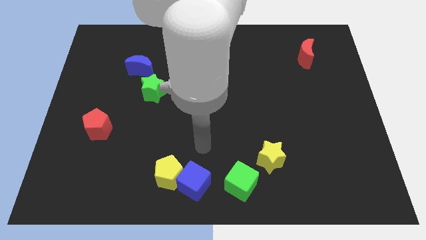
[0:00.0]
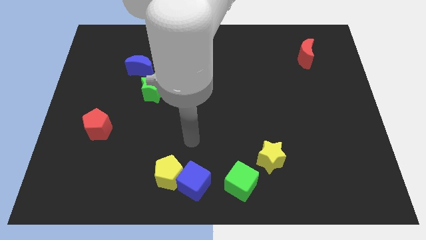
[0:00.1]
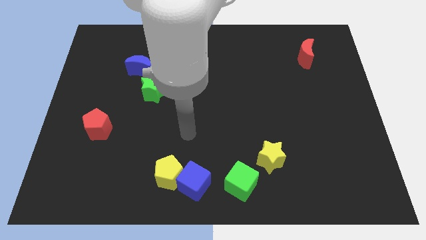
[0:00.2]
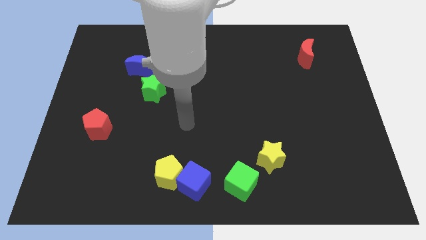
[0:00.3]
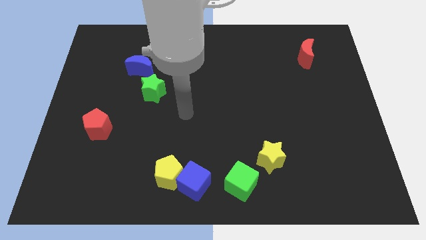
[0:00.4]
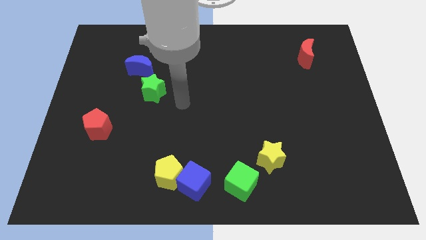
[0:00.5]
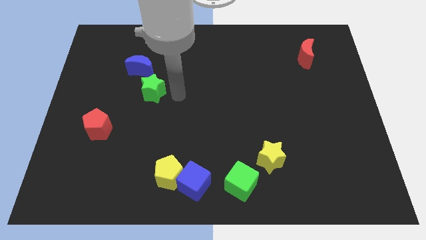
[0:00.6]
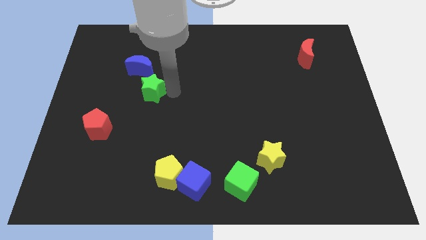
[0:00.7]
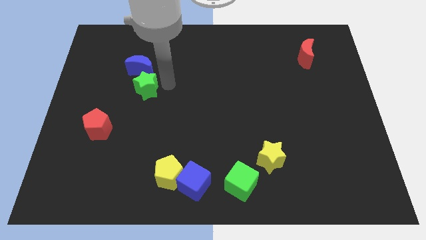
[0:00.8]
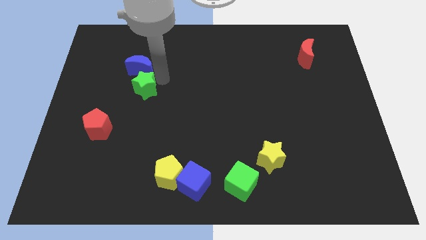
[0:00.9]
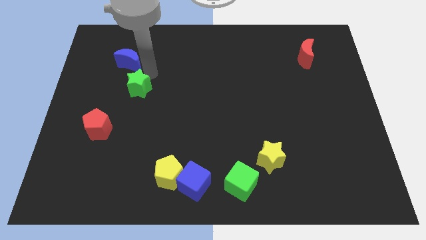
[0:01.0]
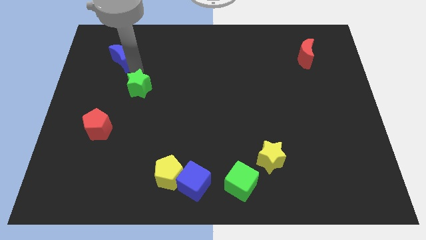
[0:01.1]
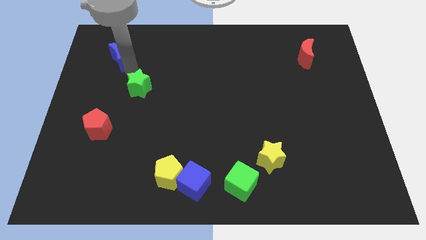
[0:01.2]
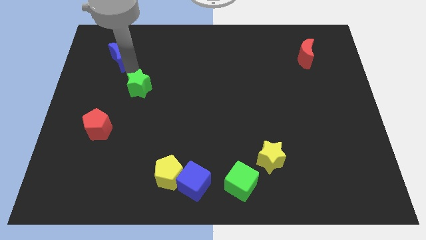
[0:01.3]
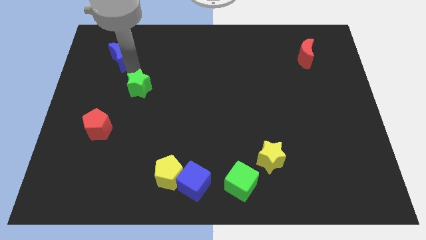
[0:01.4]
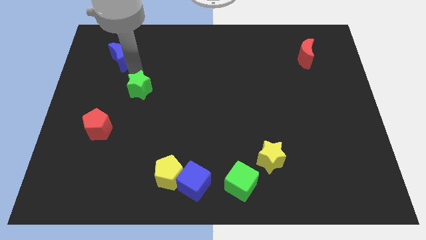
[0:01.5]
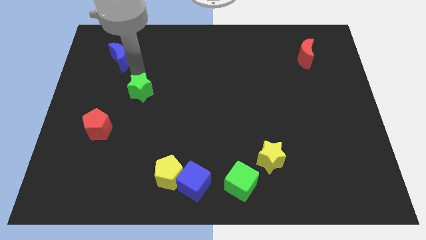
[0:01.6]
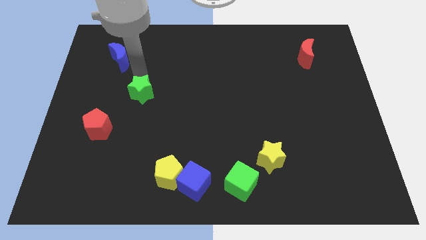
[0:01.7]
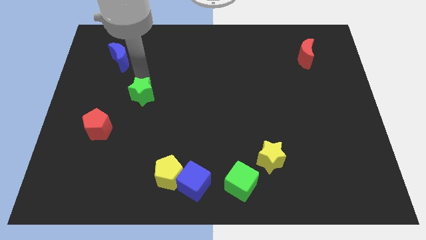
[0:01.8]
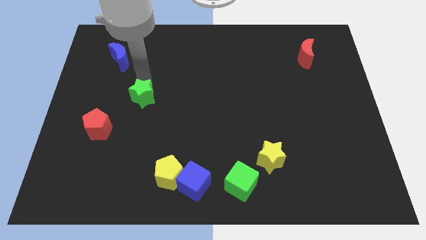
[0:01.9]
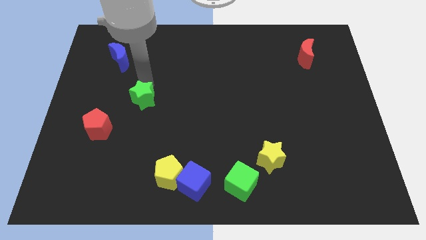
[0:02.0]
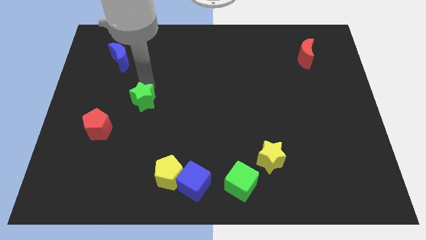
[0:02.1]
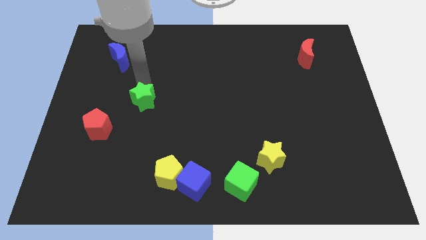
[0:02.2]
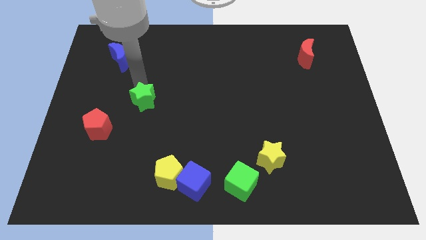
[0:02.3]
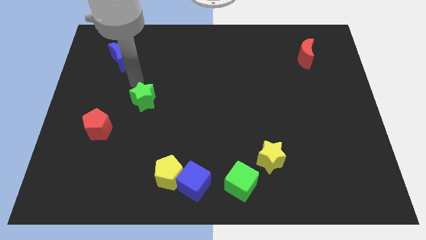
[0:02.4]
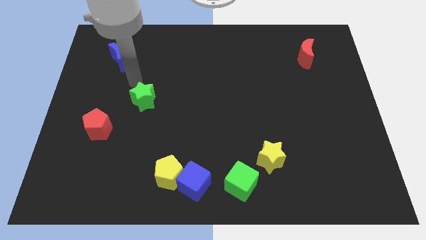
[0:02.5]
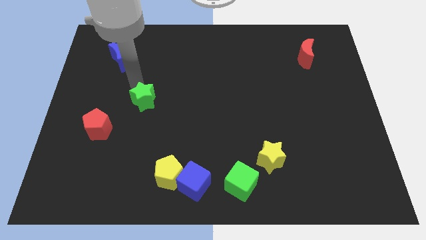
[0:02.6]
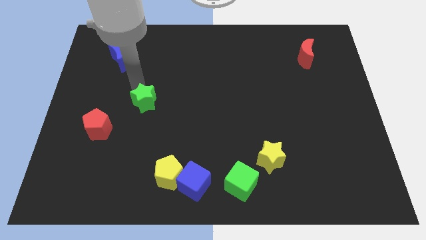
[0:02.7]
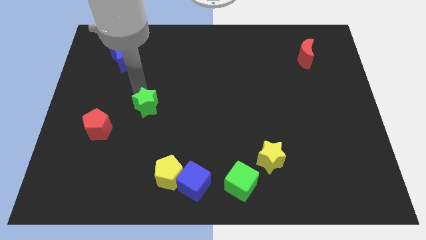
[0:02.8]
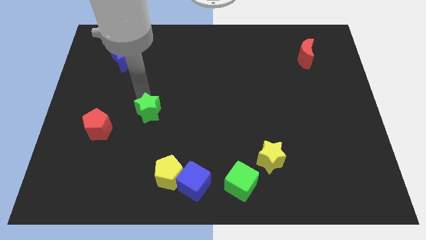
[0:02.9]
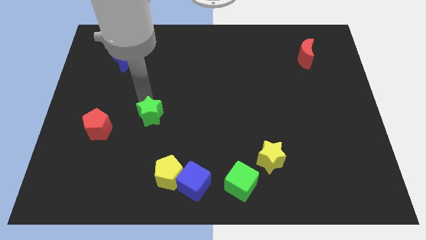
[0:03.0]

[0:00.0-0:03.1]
push the green star downwards slightly

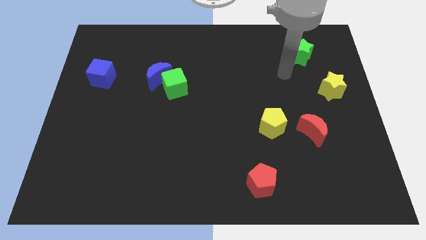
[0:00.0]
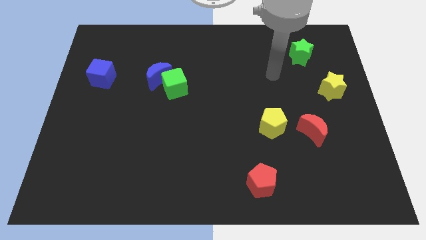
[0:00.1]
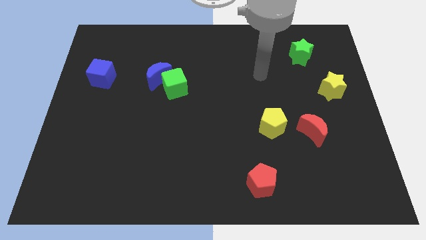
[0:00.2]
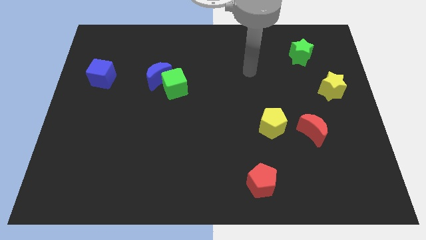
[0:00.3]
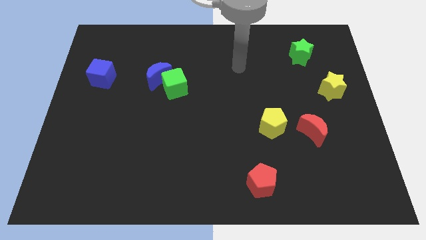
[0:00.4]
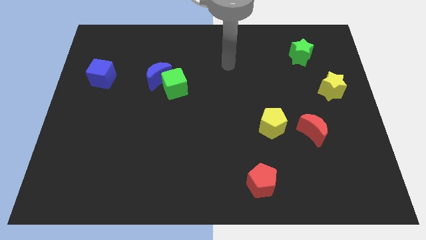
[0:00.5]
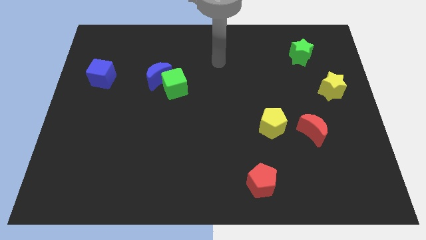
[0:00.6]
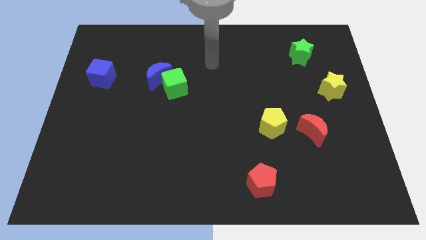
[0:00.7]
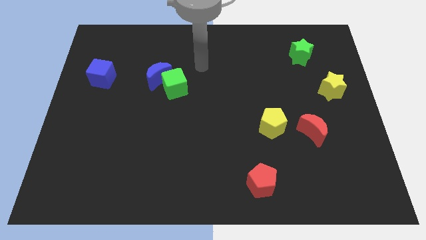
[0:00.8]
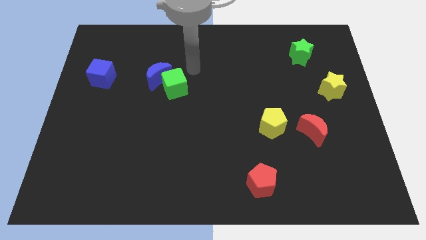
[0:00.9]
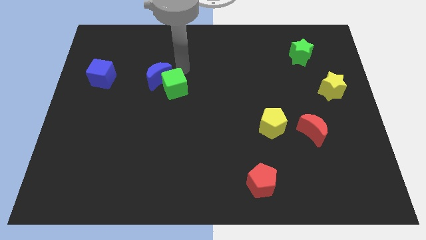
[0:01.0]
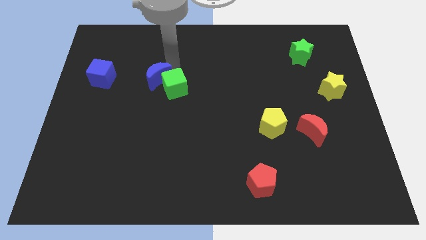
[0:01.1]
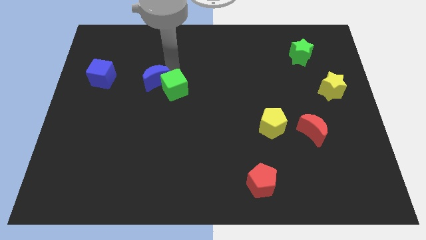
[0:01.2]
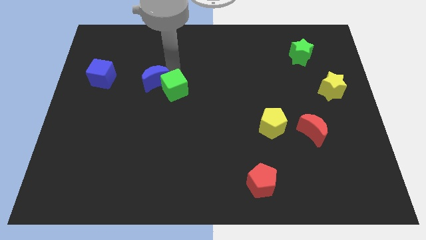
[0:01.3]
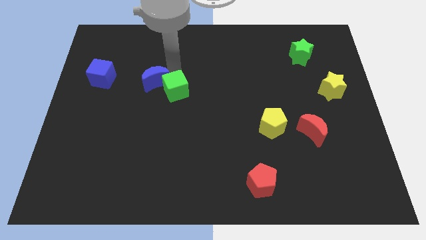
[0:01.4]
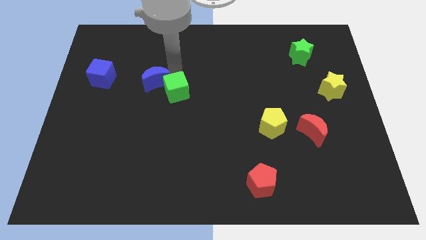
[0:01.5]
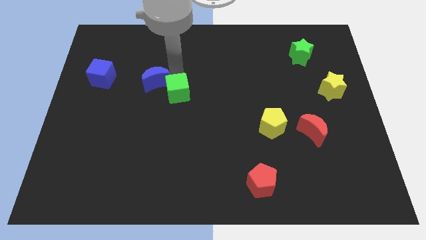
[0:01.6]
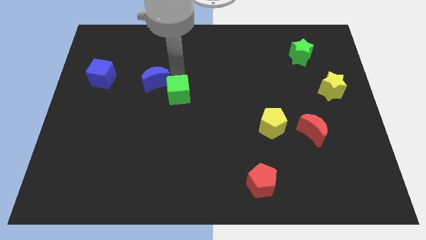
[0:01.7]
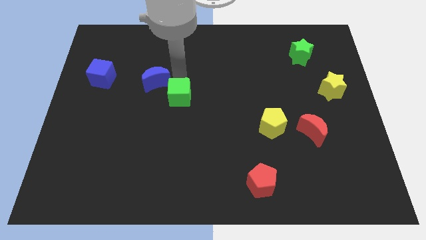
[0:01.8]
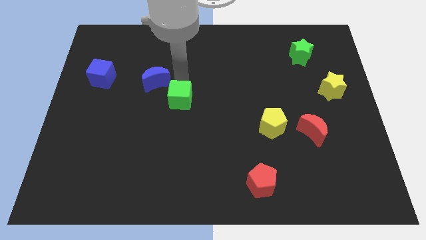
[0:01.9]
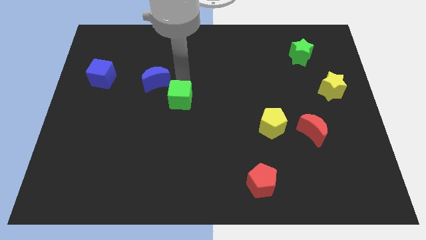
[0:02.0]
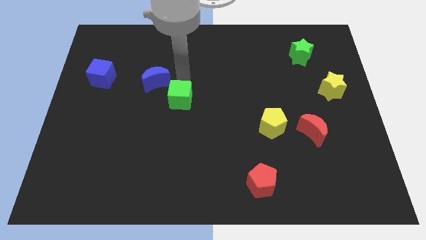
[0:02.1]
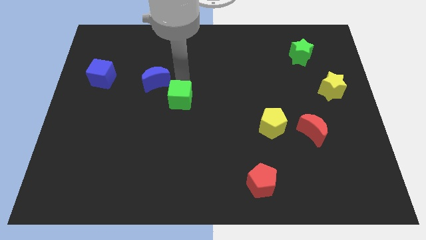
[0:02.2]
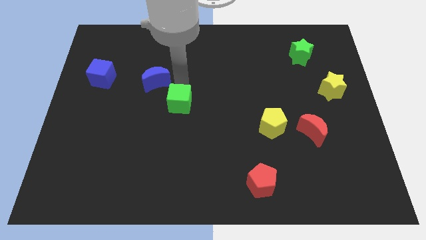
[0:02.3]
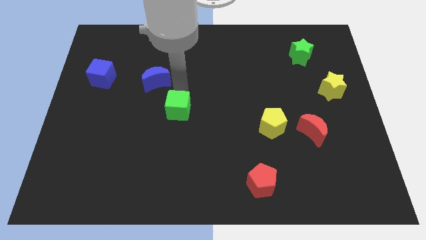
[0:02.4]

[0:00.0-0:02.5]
slightly slide the green cube down

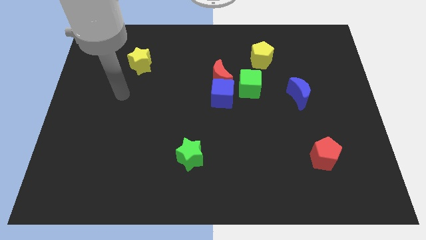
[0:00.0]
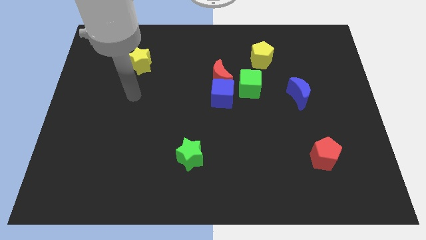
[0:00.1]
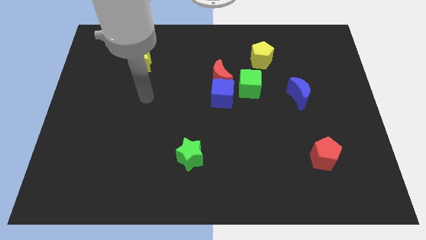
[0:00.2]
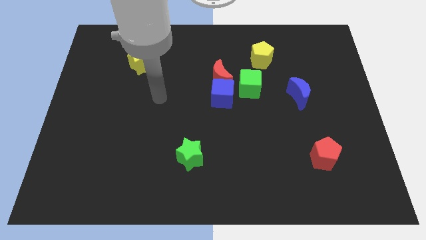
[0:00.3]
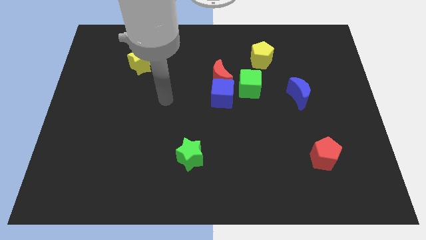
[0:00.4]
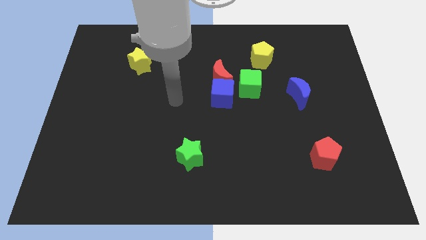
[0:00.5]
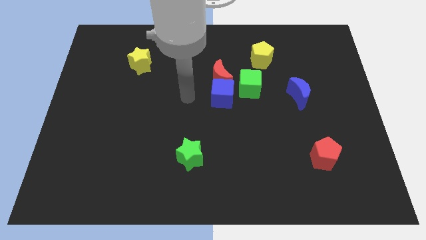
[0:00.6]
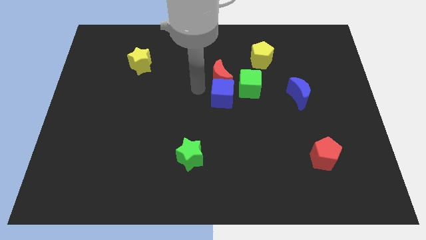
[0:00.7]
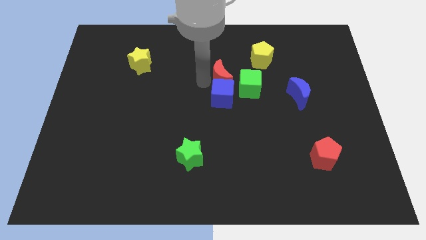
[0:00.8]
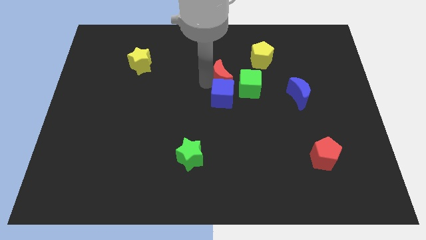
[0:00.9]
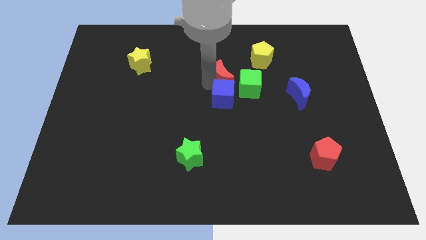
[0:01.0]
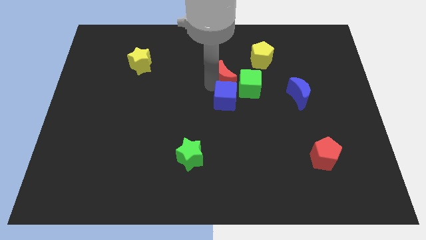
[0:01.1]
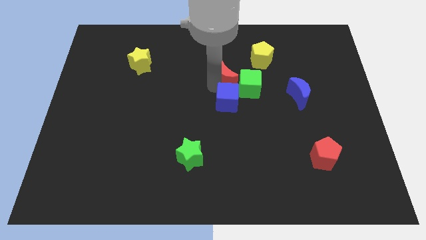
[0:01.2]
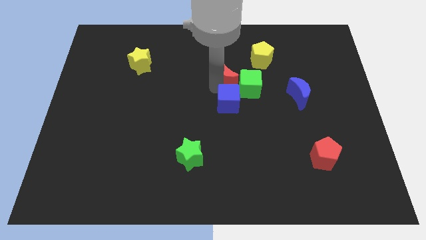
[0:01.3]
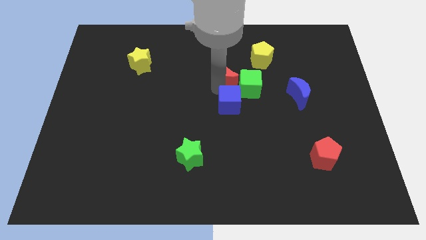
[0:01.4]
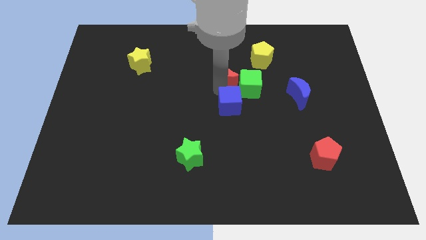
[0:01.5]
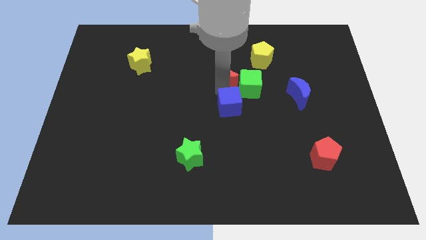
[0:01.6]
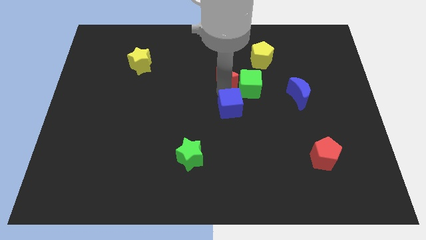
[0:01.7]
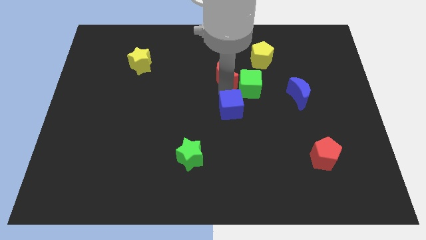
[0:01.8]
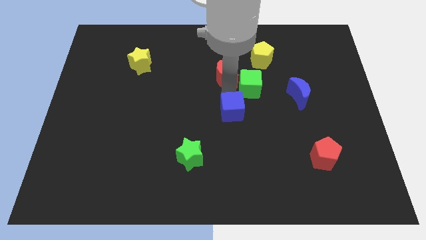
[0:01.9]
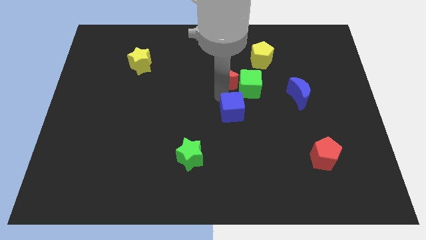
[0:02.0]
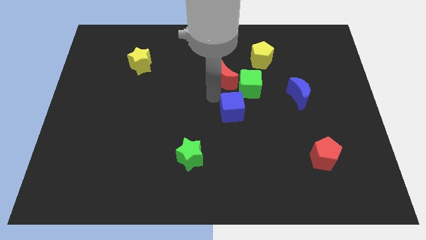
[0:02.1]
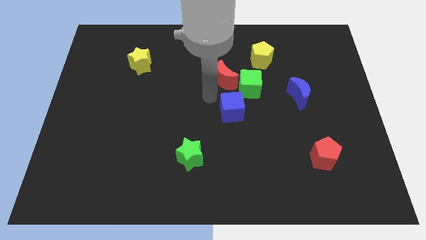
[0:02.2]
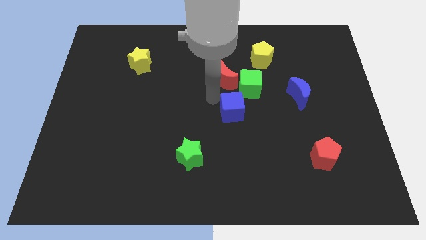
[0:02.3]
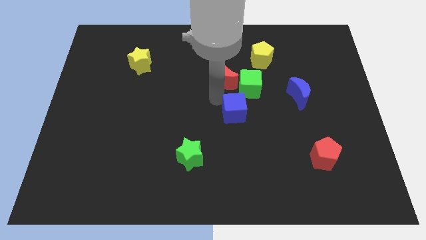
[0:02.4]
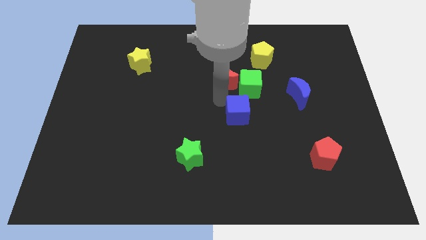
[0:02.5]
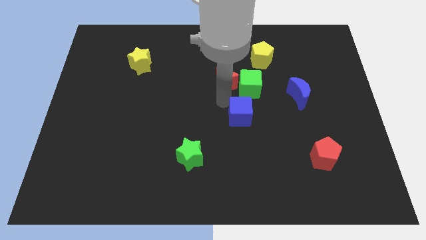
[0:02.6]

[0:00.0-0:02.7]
push the blue cube downwards and to the right diagonally a bit
